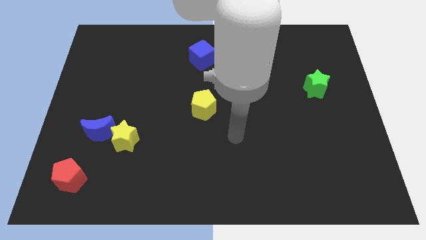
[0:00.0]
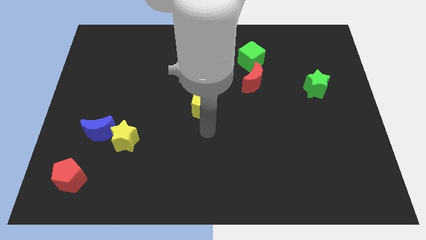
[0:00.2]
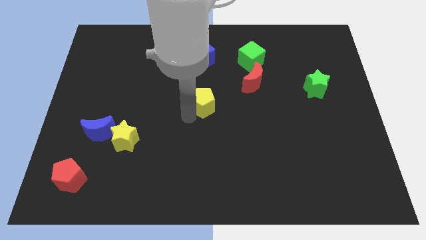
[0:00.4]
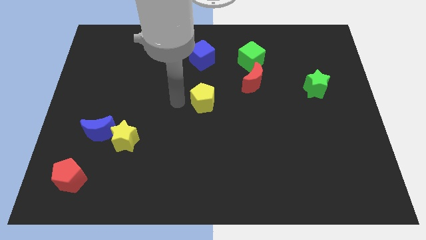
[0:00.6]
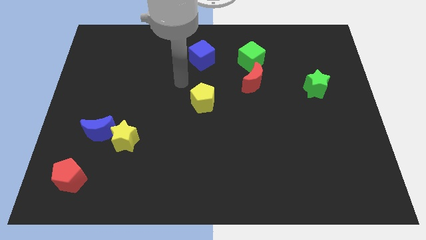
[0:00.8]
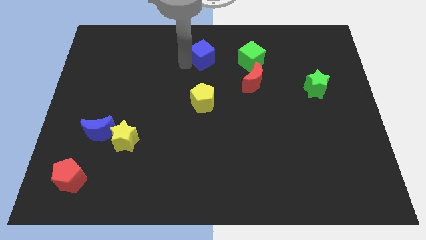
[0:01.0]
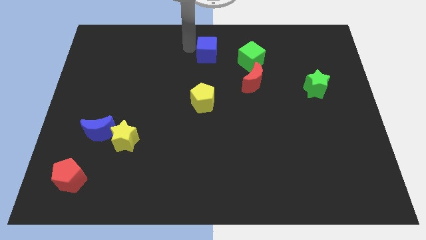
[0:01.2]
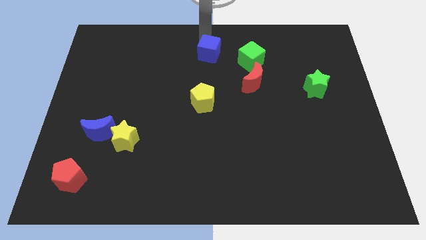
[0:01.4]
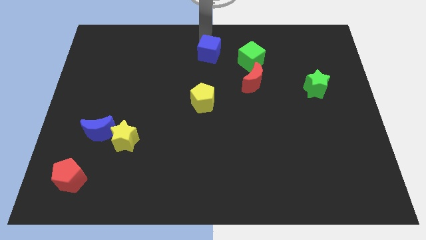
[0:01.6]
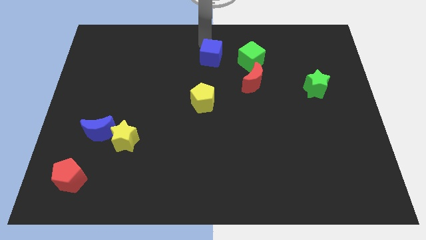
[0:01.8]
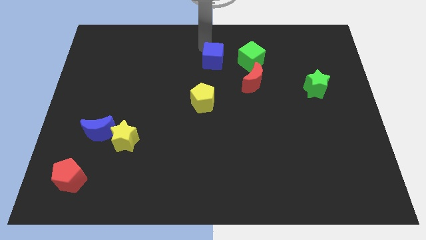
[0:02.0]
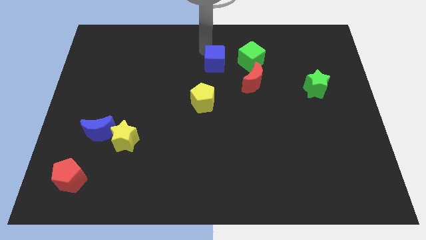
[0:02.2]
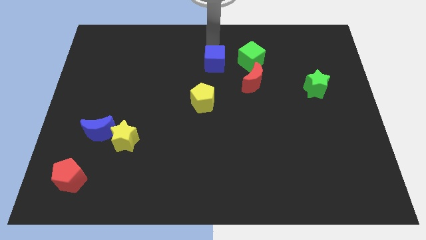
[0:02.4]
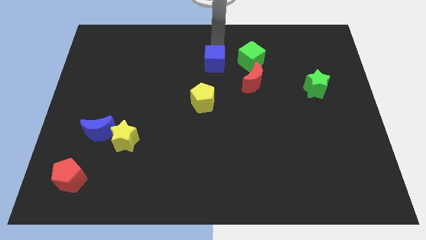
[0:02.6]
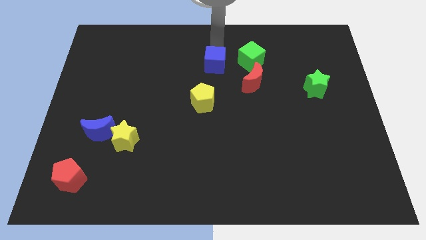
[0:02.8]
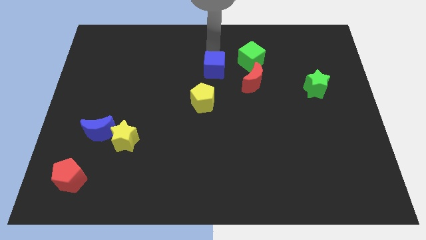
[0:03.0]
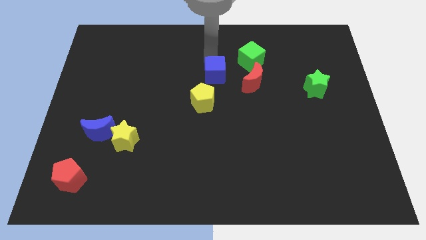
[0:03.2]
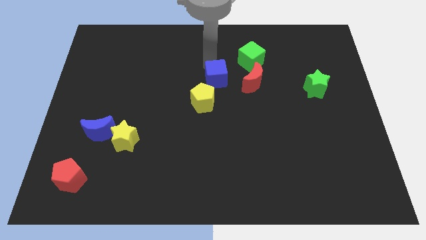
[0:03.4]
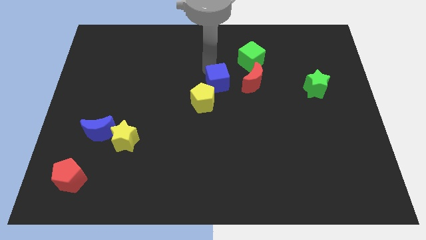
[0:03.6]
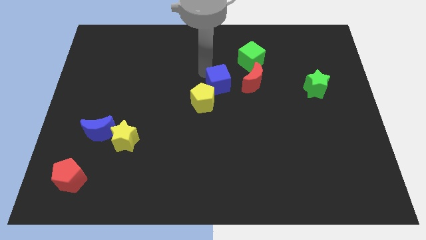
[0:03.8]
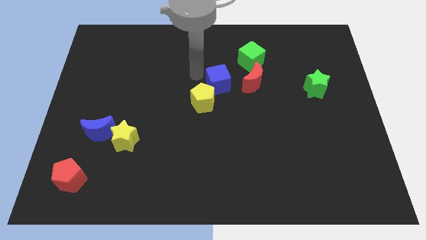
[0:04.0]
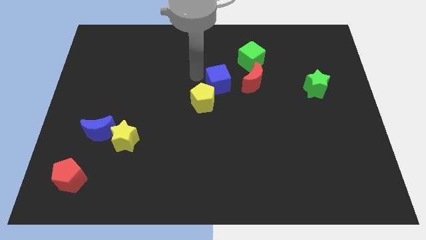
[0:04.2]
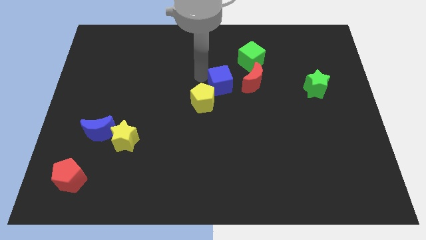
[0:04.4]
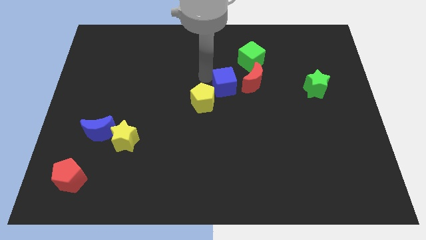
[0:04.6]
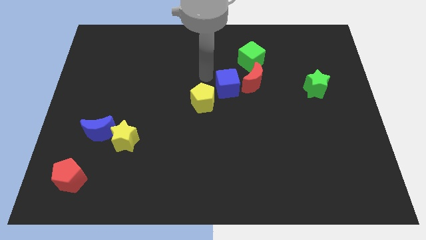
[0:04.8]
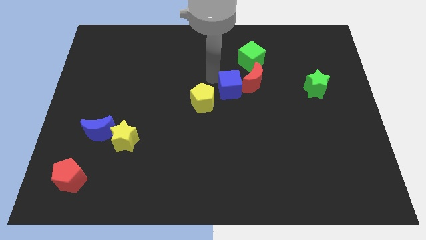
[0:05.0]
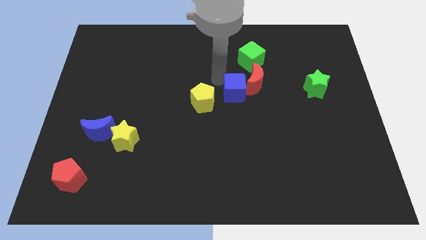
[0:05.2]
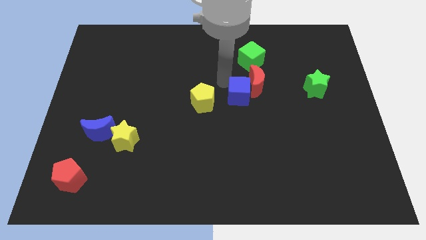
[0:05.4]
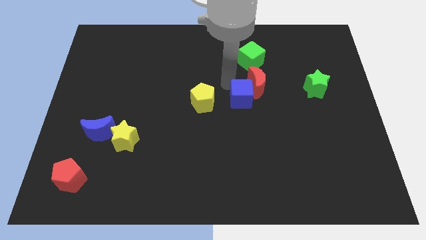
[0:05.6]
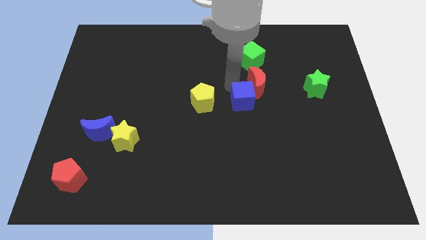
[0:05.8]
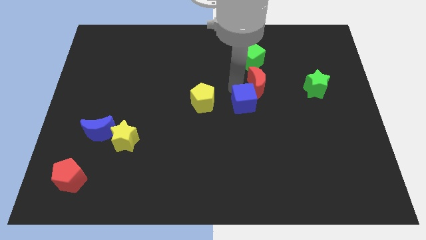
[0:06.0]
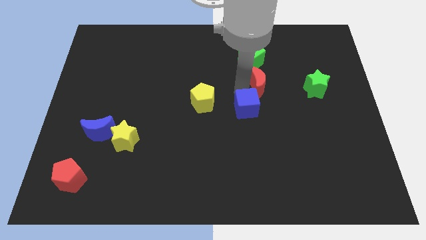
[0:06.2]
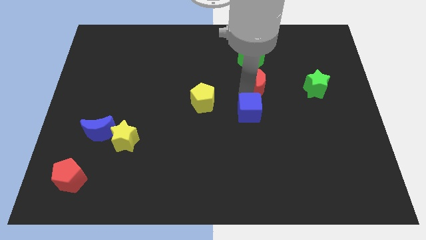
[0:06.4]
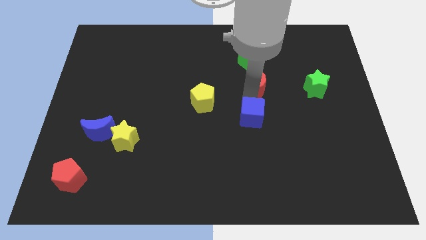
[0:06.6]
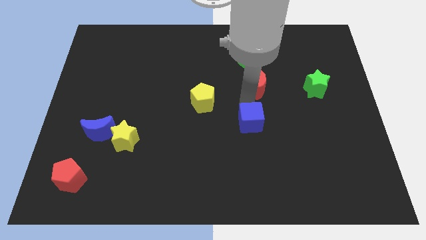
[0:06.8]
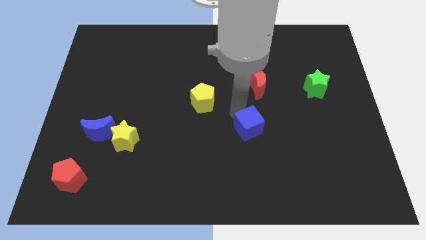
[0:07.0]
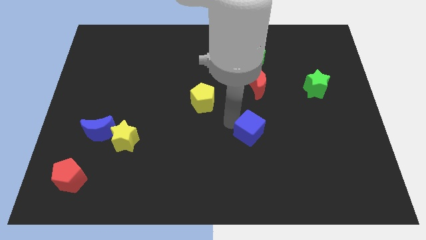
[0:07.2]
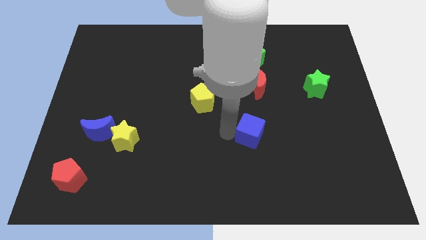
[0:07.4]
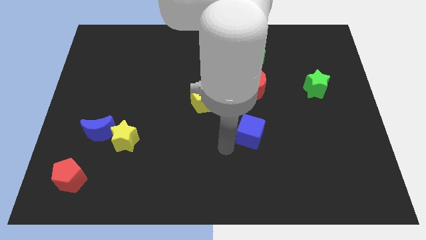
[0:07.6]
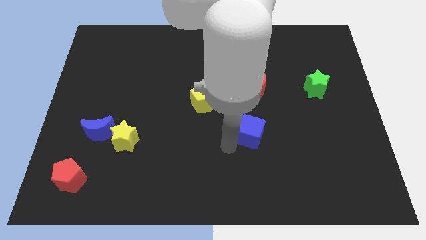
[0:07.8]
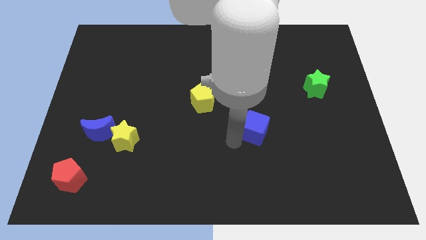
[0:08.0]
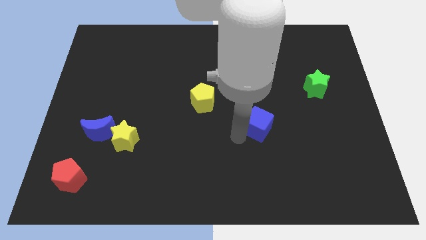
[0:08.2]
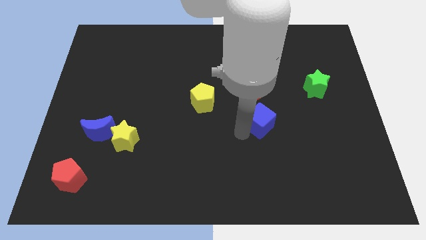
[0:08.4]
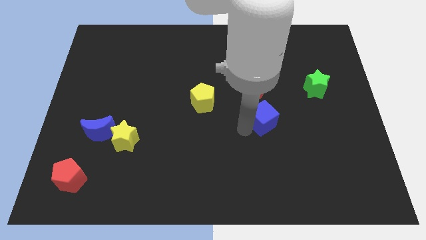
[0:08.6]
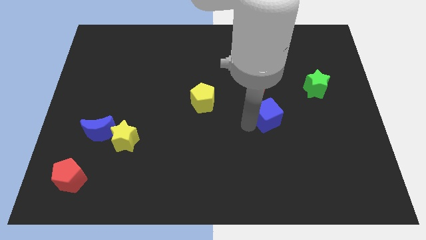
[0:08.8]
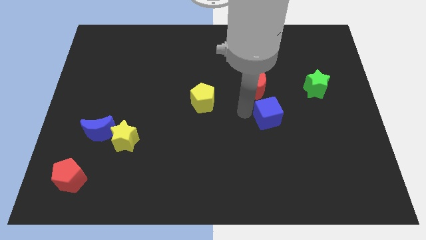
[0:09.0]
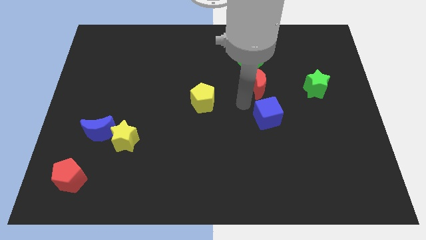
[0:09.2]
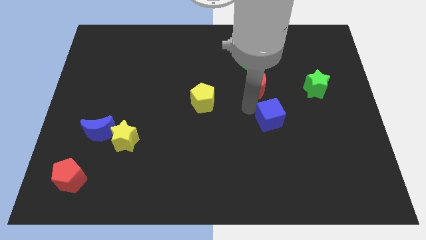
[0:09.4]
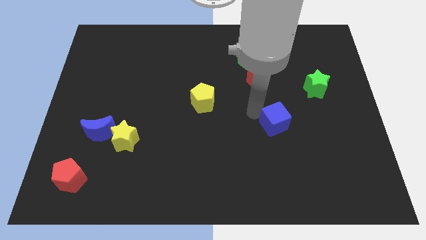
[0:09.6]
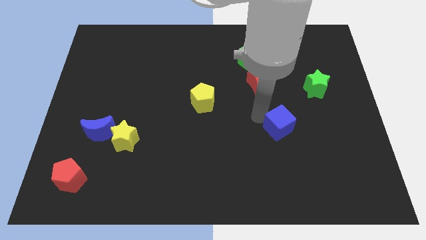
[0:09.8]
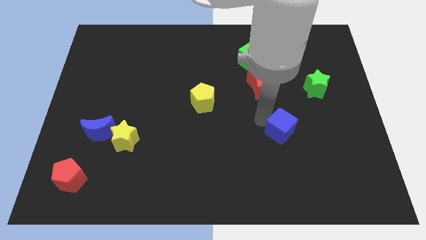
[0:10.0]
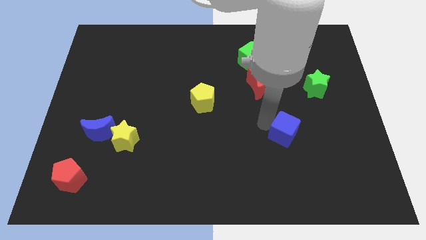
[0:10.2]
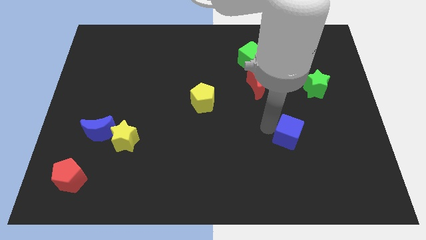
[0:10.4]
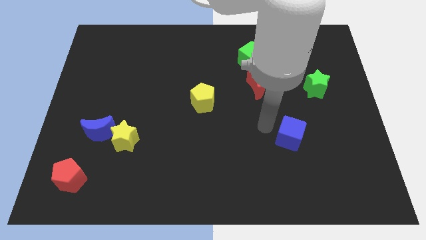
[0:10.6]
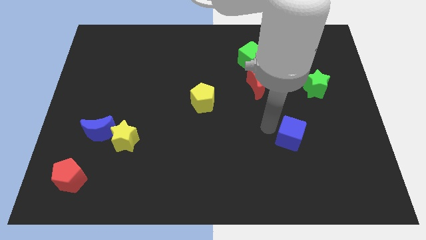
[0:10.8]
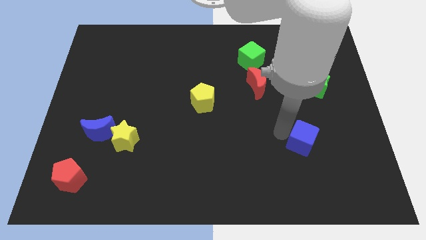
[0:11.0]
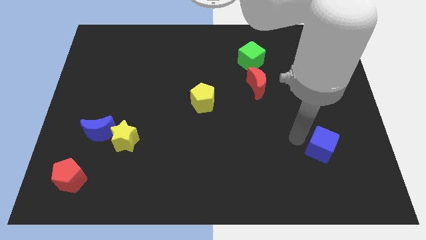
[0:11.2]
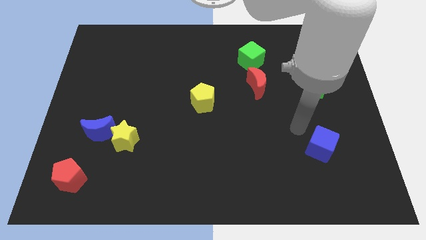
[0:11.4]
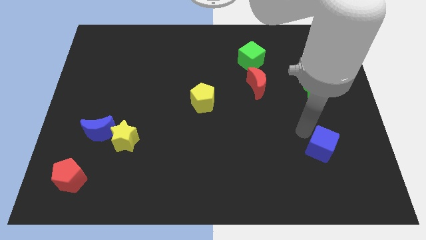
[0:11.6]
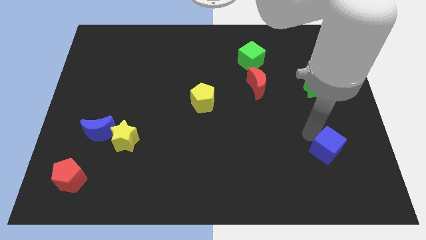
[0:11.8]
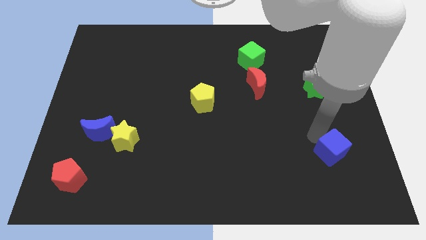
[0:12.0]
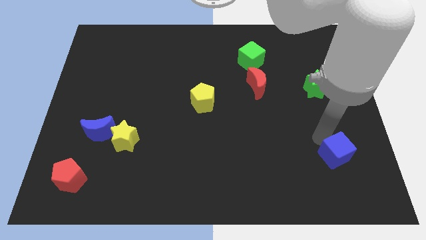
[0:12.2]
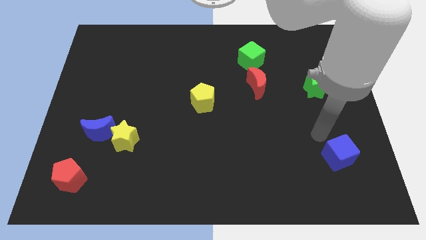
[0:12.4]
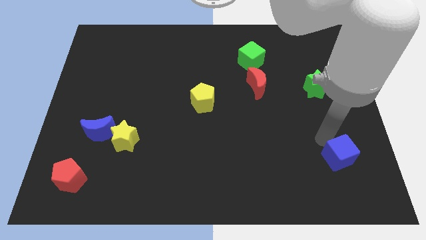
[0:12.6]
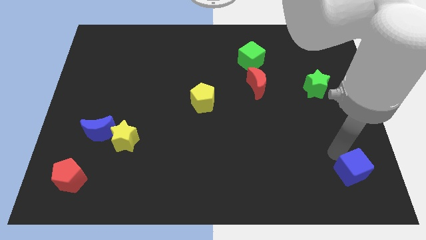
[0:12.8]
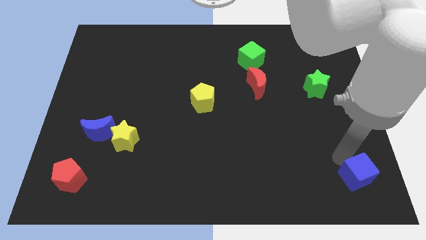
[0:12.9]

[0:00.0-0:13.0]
move the blue cube to the bottom right of the board

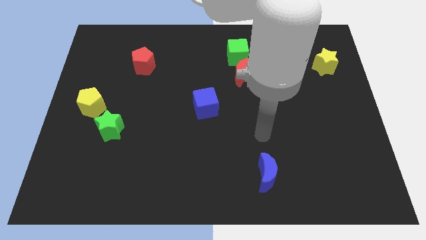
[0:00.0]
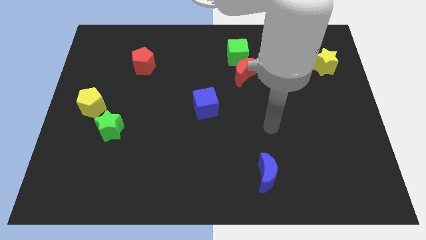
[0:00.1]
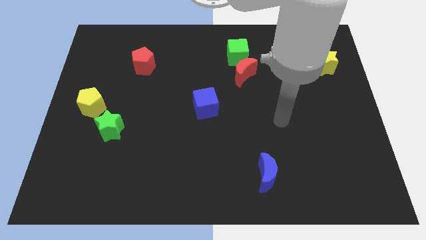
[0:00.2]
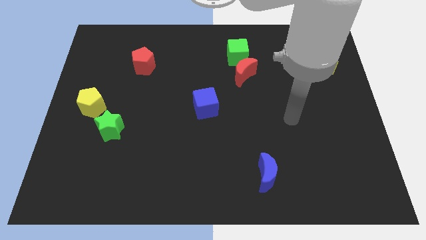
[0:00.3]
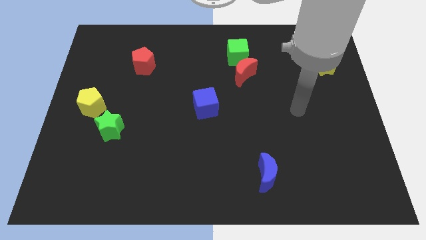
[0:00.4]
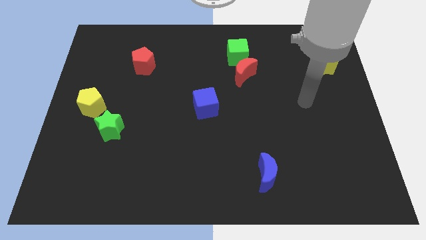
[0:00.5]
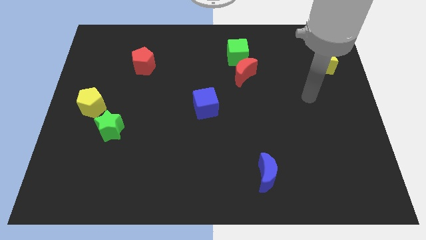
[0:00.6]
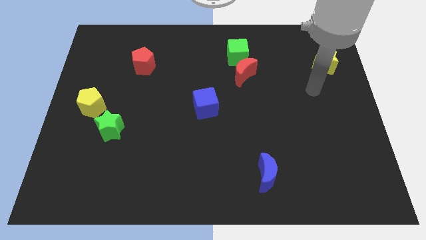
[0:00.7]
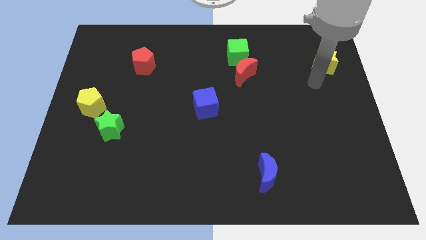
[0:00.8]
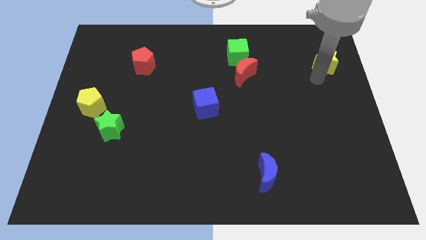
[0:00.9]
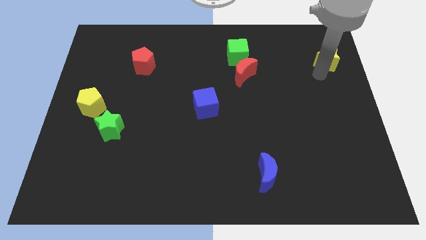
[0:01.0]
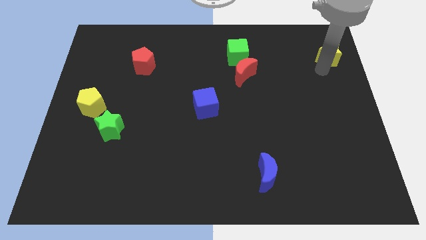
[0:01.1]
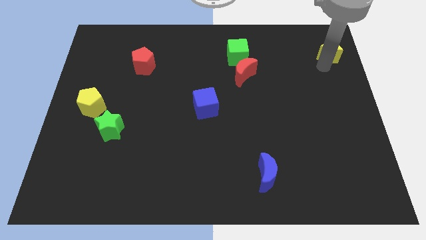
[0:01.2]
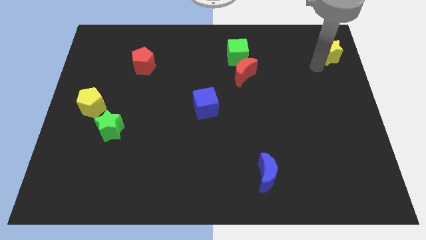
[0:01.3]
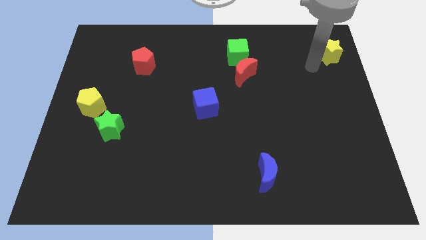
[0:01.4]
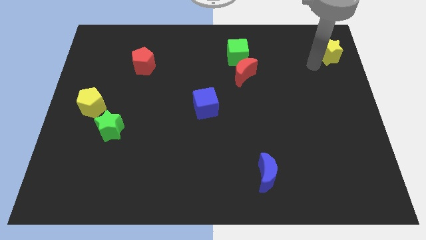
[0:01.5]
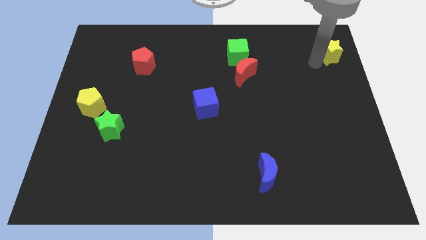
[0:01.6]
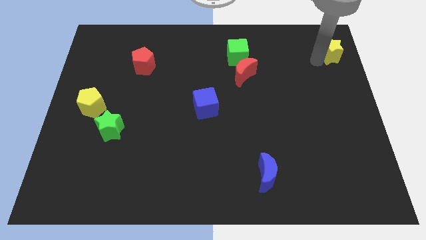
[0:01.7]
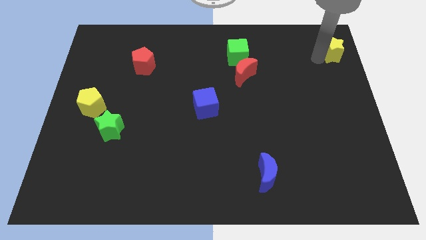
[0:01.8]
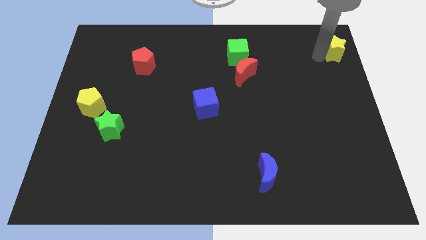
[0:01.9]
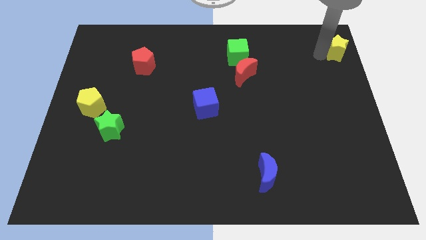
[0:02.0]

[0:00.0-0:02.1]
slide the yellow star to the top right corner
